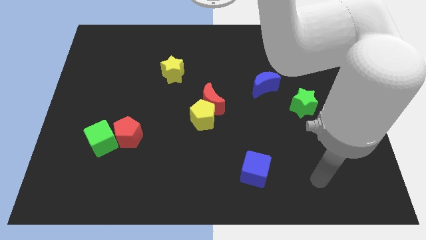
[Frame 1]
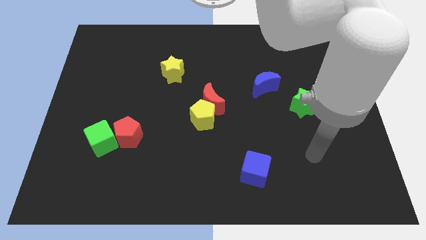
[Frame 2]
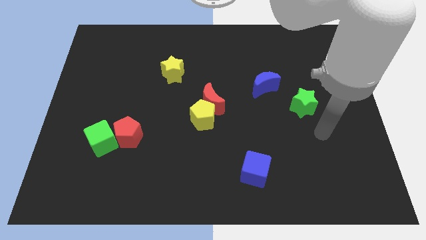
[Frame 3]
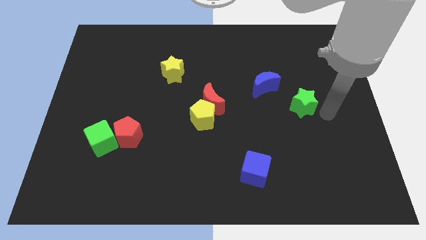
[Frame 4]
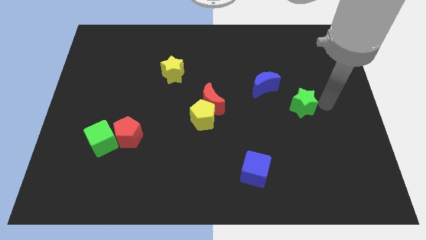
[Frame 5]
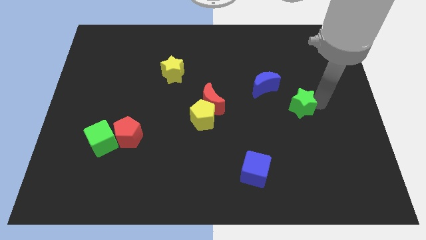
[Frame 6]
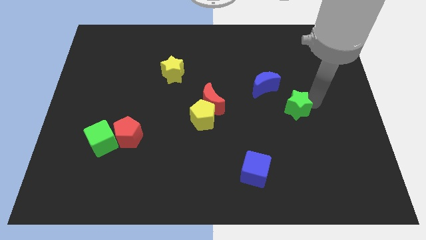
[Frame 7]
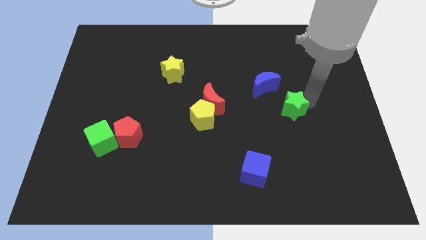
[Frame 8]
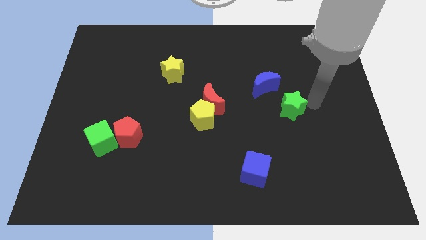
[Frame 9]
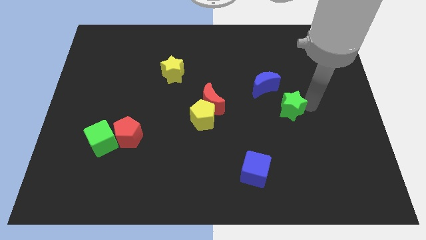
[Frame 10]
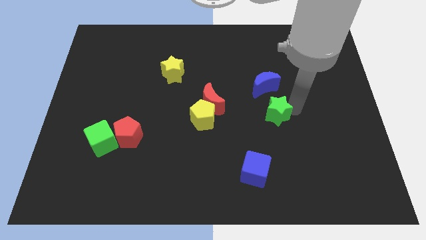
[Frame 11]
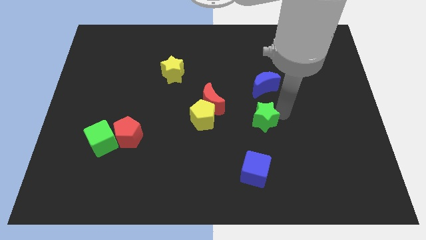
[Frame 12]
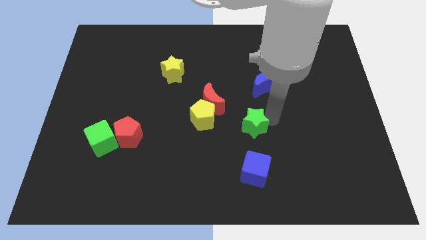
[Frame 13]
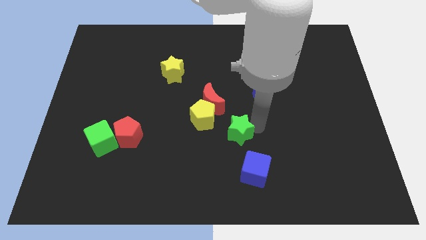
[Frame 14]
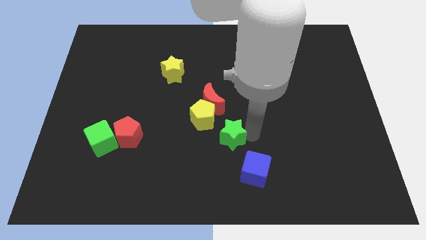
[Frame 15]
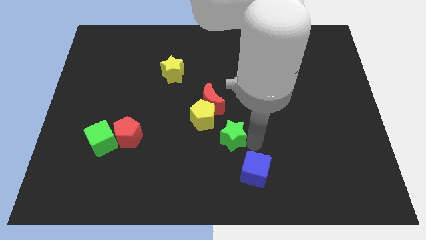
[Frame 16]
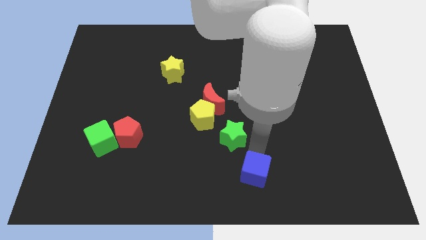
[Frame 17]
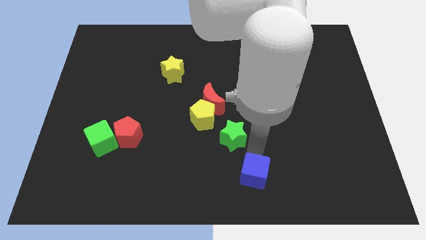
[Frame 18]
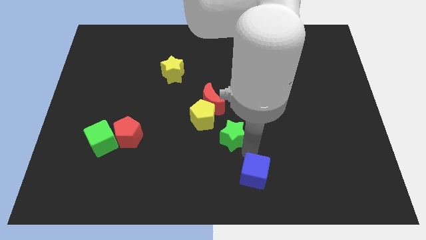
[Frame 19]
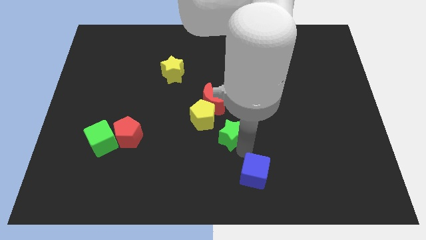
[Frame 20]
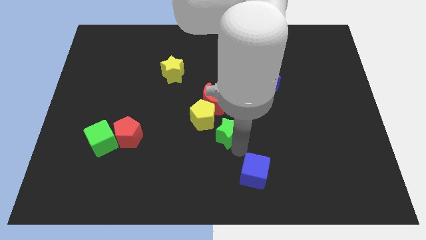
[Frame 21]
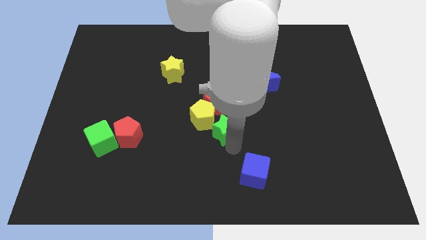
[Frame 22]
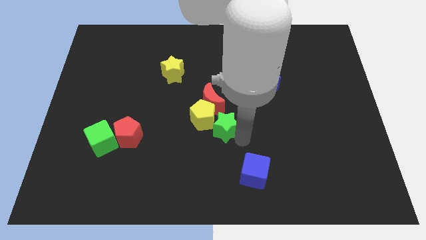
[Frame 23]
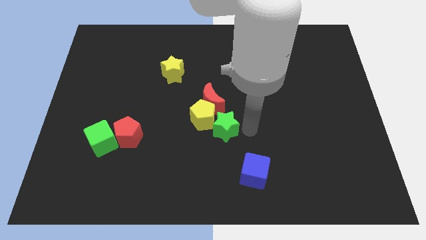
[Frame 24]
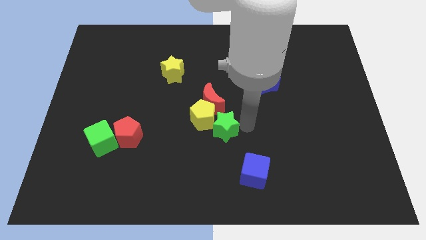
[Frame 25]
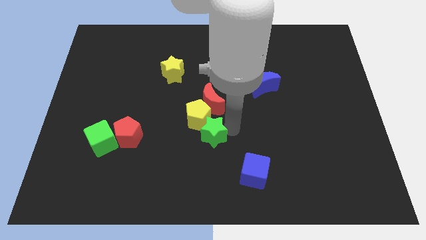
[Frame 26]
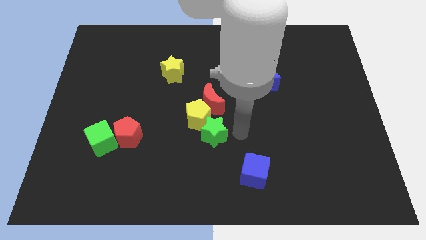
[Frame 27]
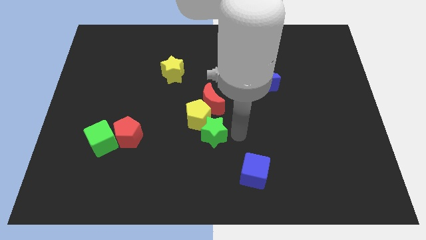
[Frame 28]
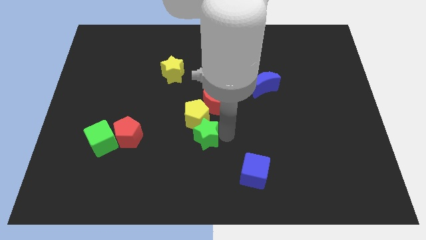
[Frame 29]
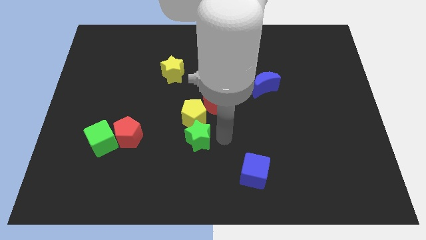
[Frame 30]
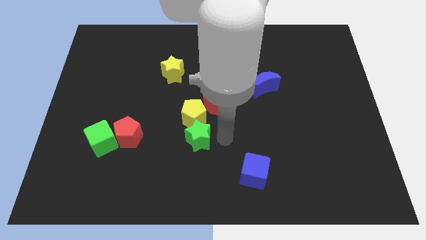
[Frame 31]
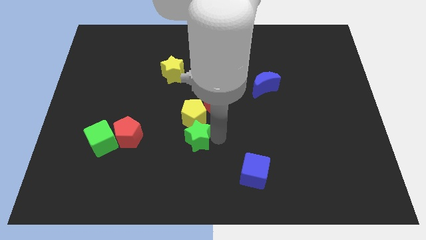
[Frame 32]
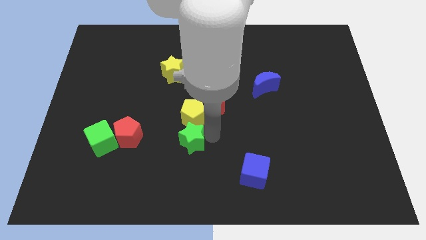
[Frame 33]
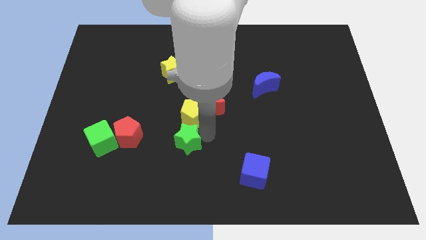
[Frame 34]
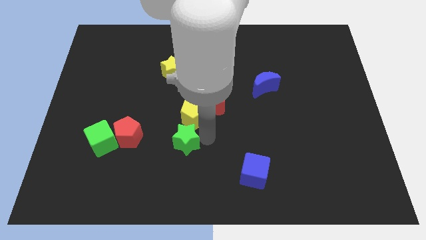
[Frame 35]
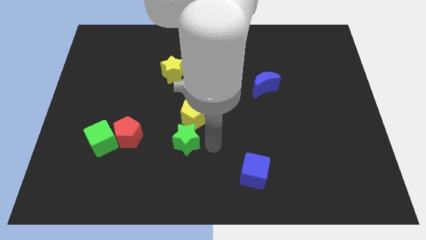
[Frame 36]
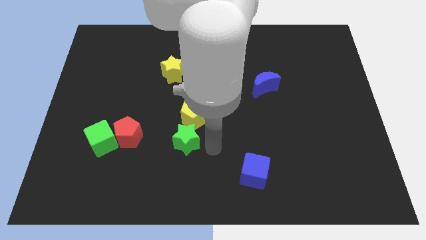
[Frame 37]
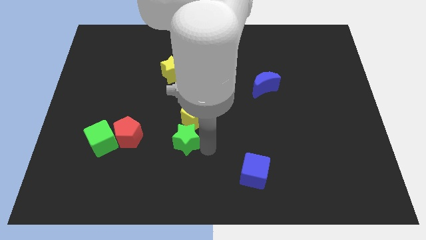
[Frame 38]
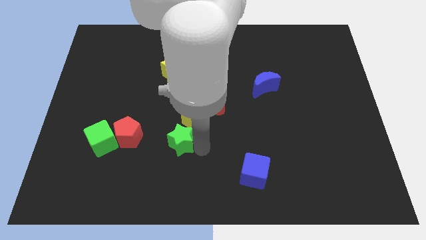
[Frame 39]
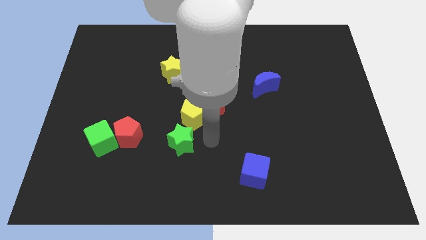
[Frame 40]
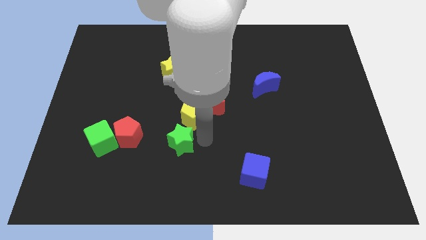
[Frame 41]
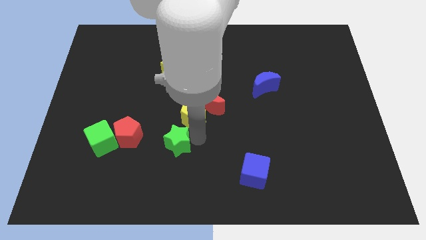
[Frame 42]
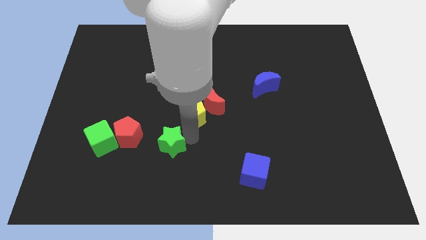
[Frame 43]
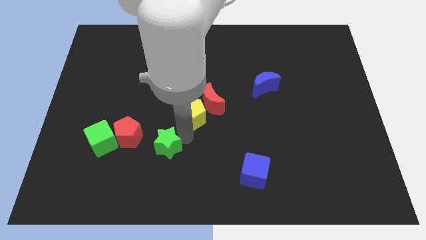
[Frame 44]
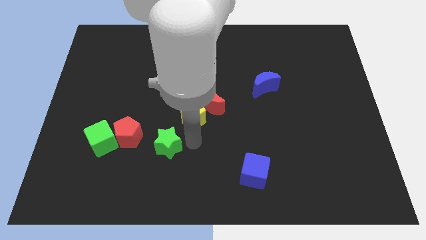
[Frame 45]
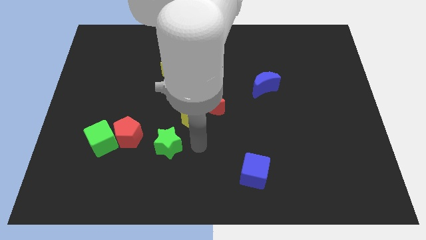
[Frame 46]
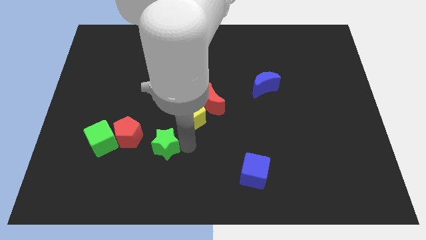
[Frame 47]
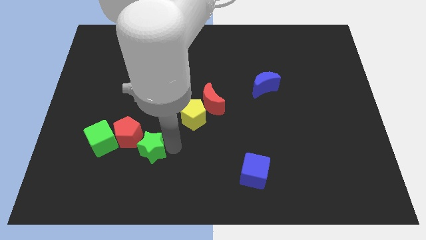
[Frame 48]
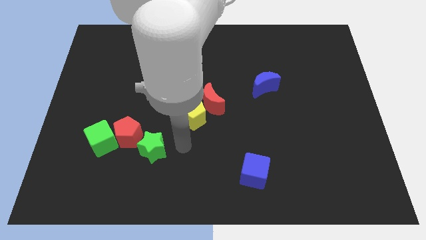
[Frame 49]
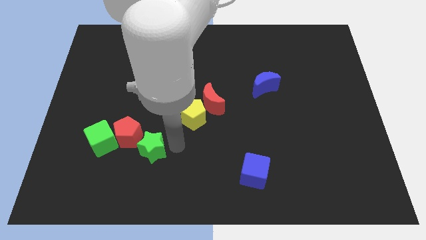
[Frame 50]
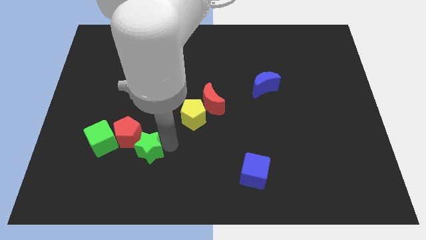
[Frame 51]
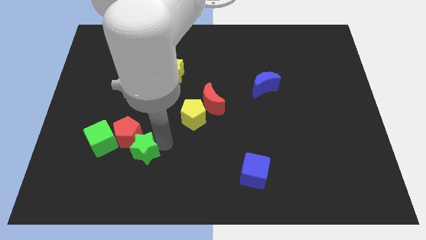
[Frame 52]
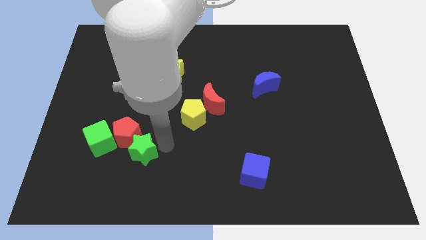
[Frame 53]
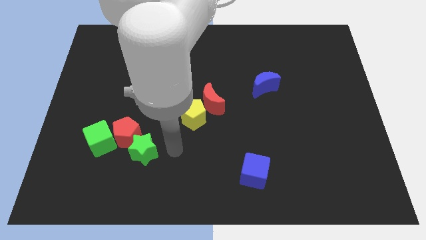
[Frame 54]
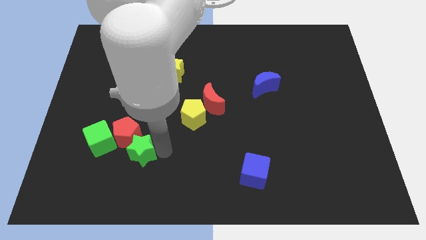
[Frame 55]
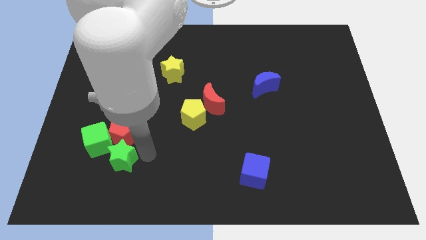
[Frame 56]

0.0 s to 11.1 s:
put the green star diagonally down and to the left of the red pentagon
